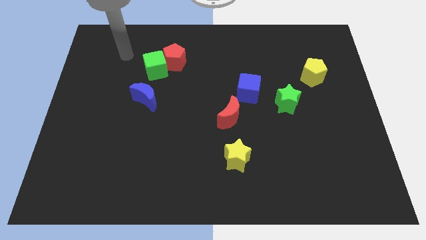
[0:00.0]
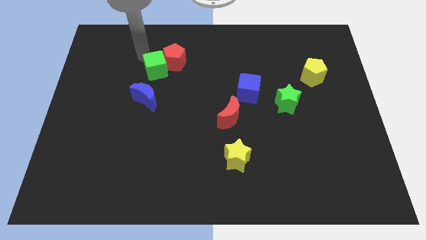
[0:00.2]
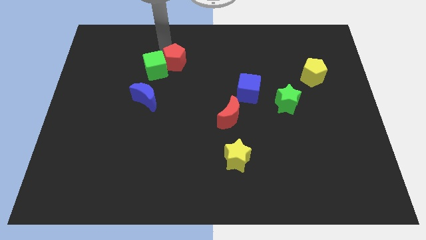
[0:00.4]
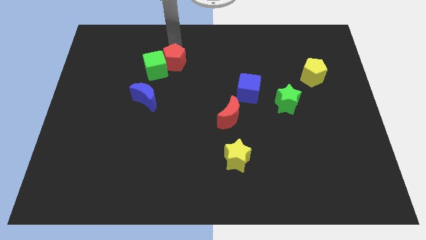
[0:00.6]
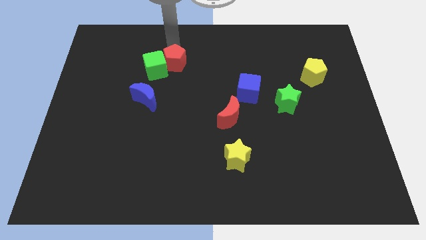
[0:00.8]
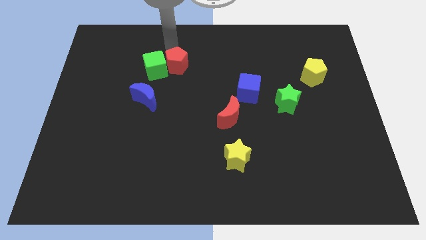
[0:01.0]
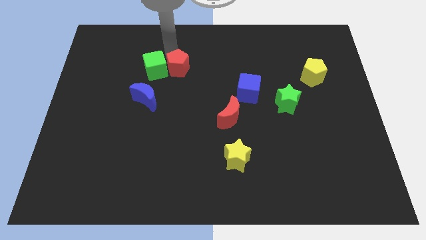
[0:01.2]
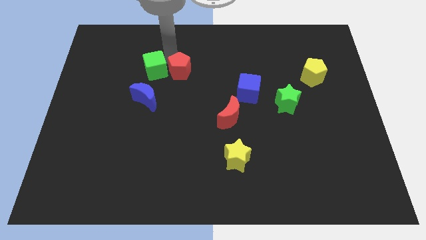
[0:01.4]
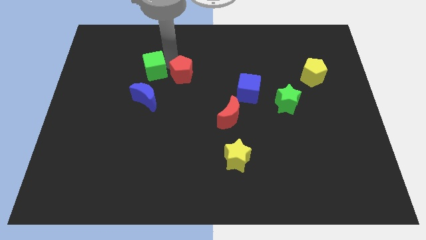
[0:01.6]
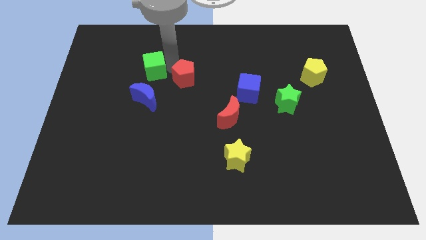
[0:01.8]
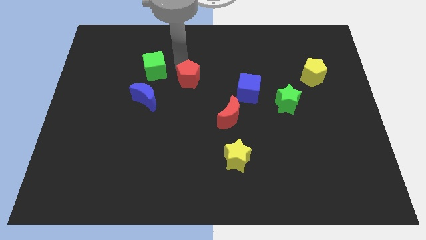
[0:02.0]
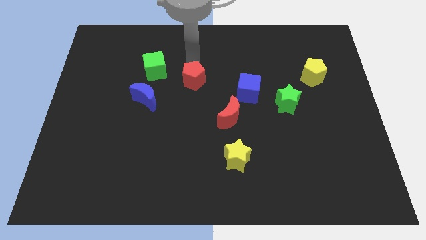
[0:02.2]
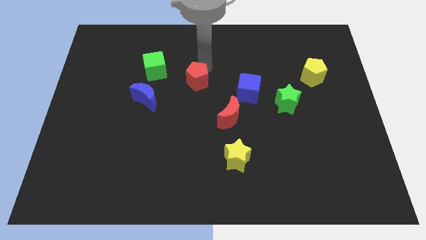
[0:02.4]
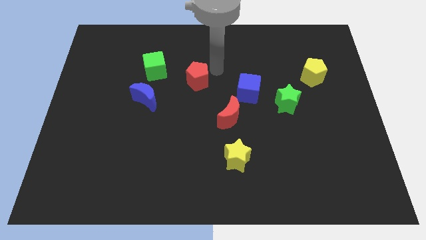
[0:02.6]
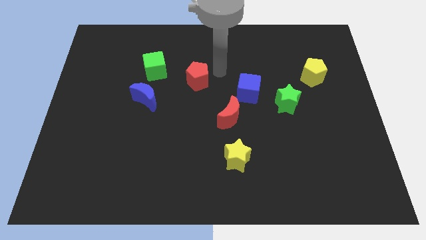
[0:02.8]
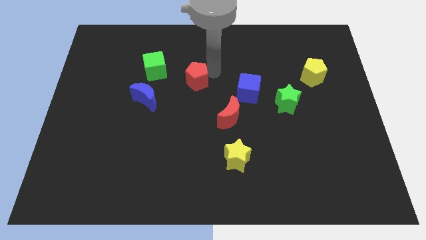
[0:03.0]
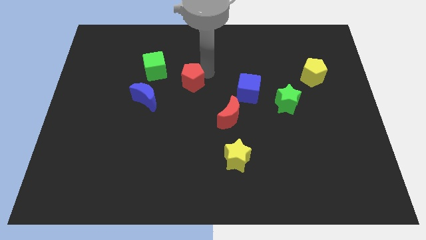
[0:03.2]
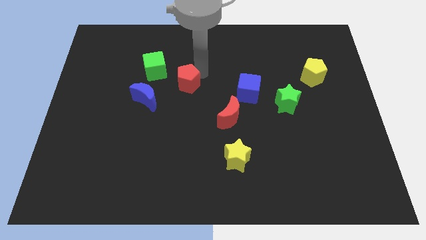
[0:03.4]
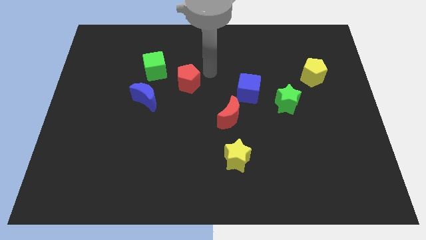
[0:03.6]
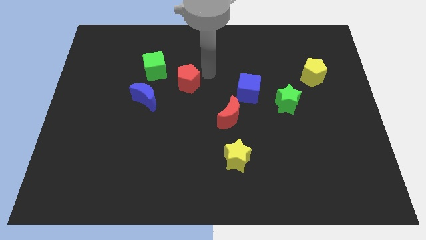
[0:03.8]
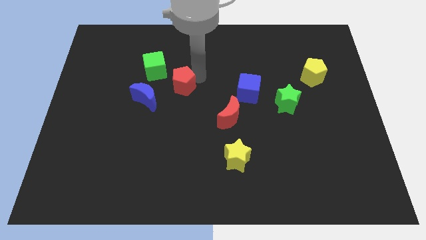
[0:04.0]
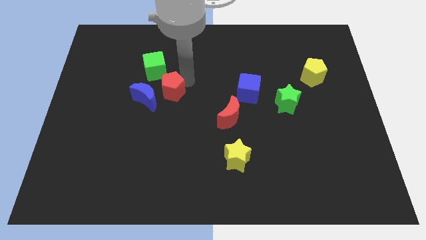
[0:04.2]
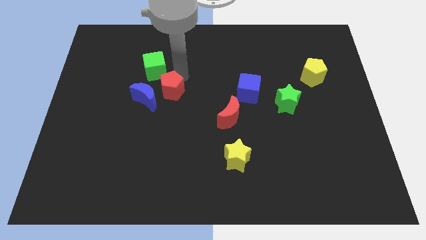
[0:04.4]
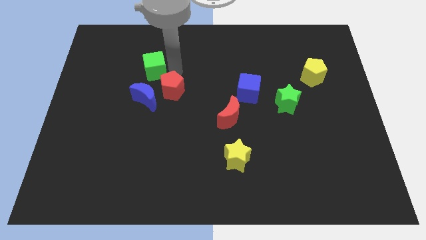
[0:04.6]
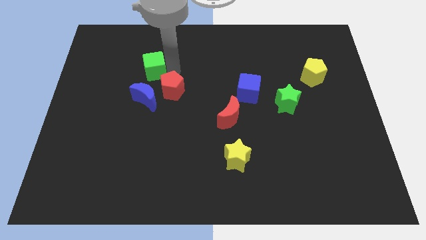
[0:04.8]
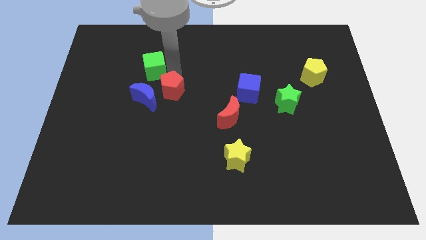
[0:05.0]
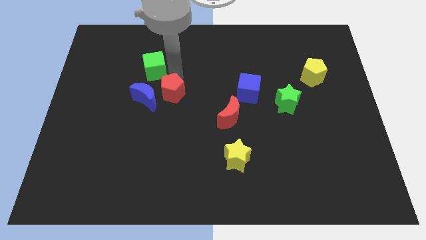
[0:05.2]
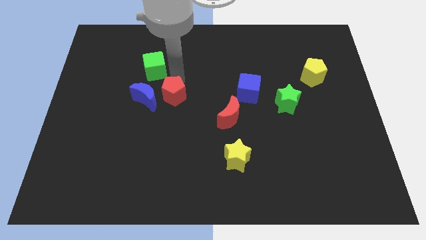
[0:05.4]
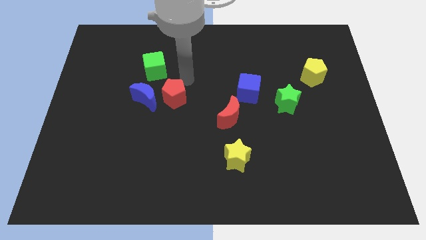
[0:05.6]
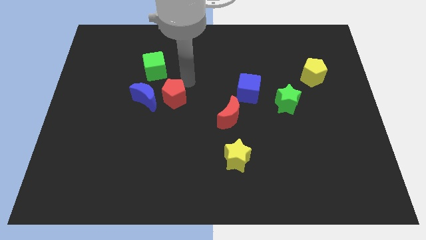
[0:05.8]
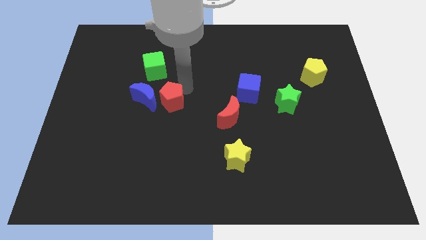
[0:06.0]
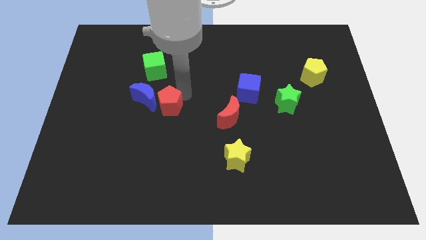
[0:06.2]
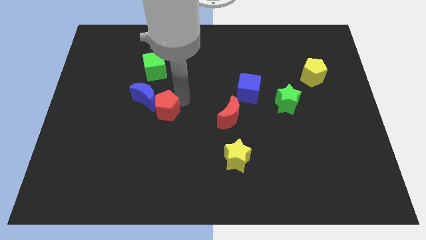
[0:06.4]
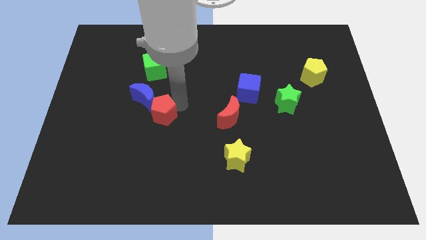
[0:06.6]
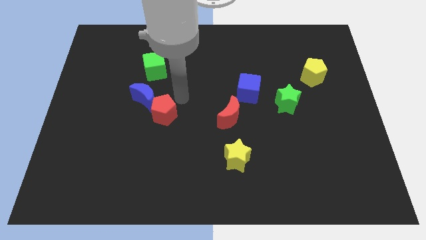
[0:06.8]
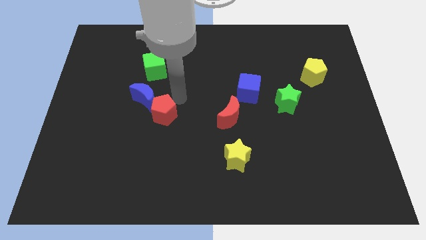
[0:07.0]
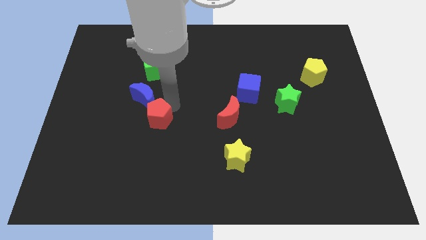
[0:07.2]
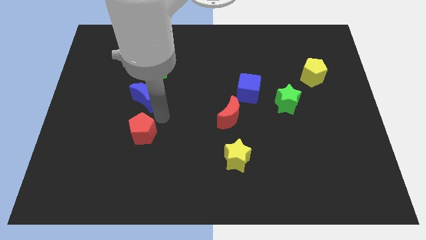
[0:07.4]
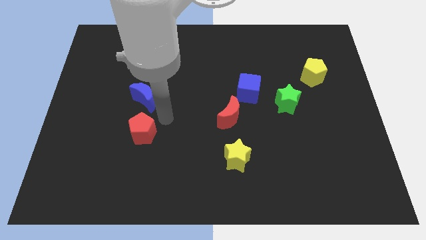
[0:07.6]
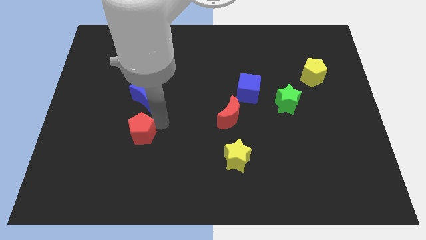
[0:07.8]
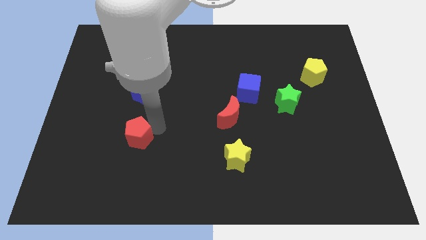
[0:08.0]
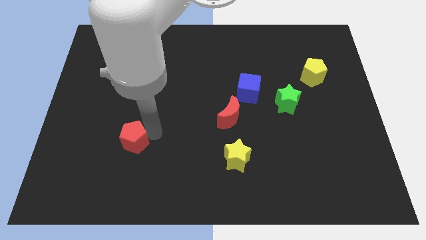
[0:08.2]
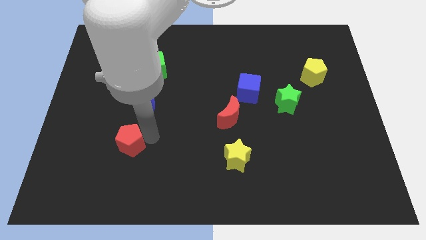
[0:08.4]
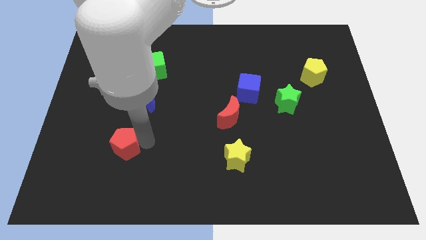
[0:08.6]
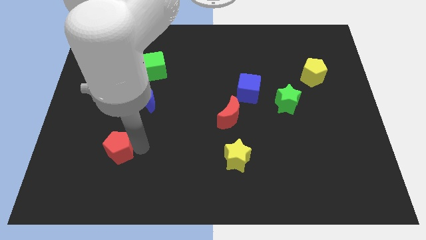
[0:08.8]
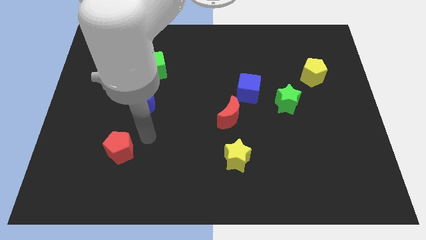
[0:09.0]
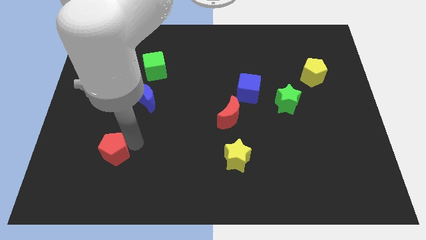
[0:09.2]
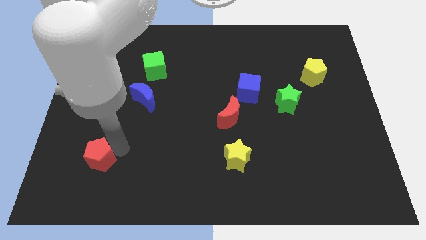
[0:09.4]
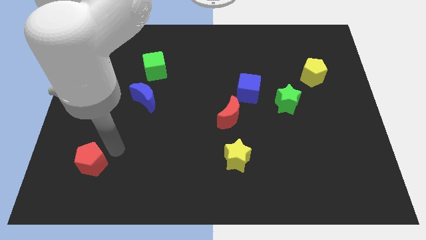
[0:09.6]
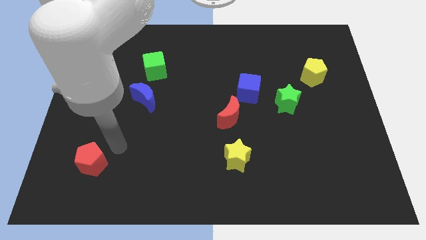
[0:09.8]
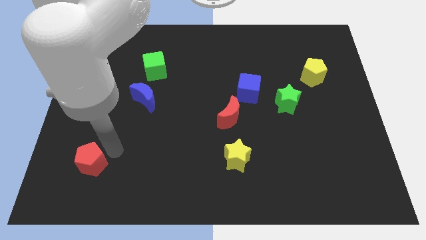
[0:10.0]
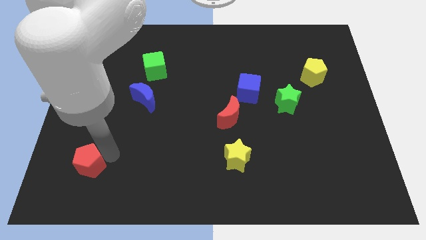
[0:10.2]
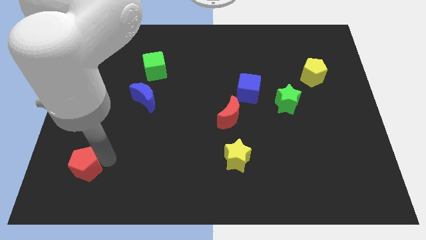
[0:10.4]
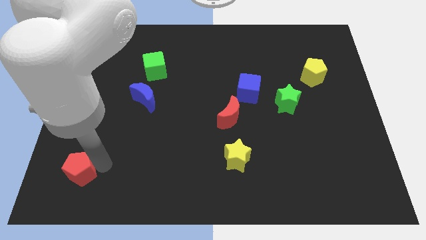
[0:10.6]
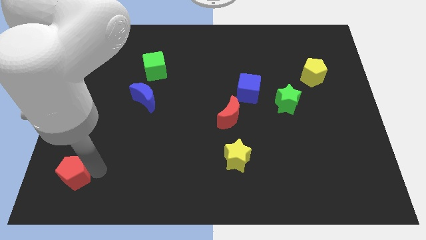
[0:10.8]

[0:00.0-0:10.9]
slide the red pentagon to the bottom left corner

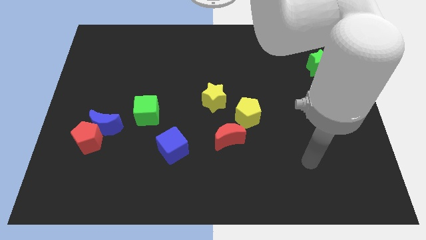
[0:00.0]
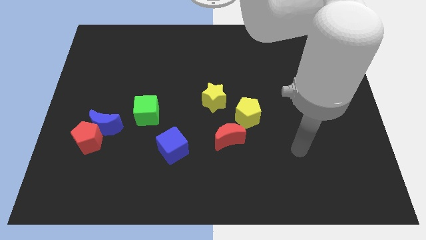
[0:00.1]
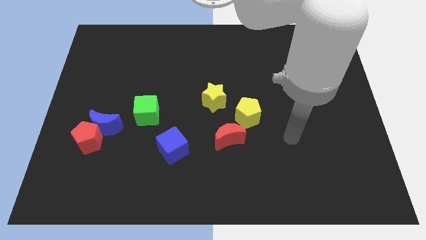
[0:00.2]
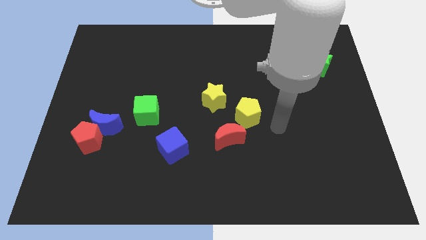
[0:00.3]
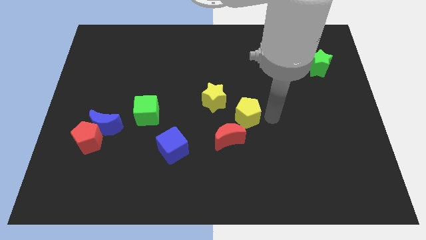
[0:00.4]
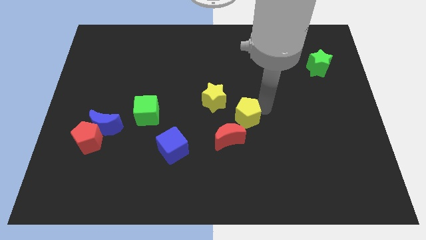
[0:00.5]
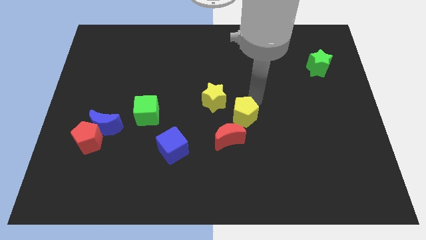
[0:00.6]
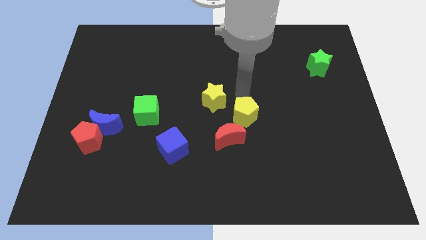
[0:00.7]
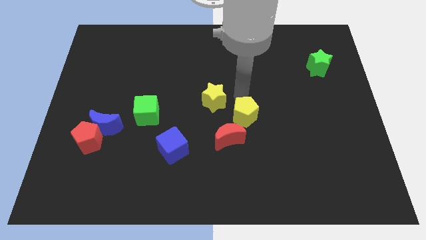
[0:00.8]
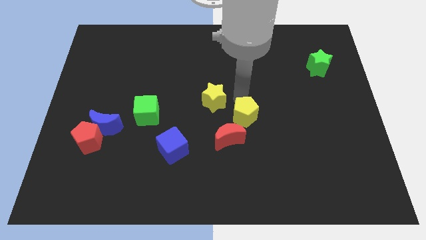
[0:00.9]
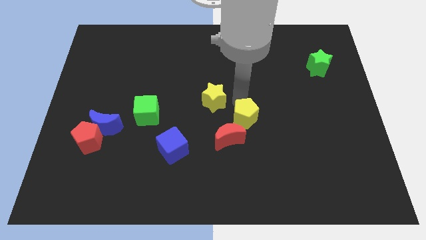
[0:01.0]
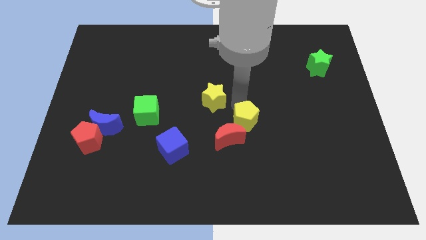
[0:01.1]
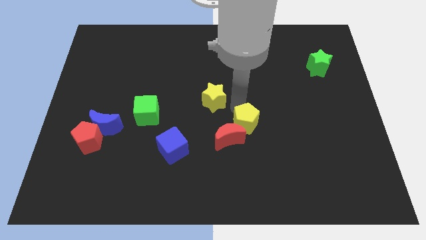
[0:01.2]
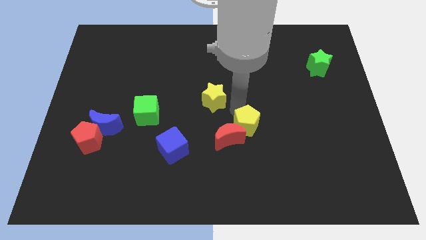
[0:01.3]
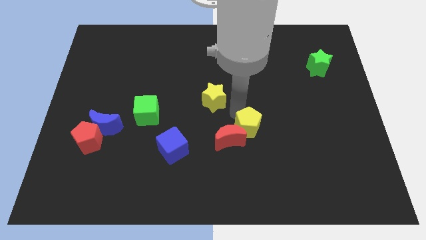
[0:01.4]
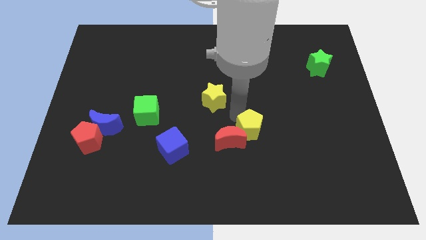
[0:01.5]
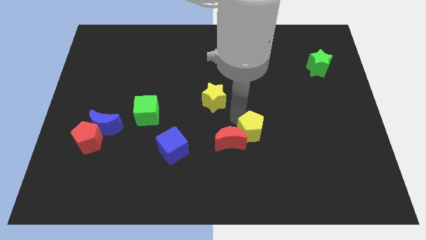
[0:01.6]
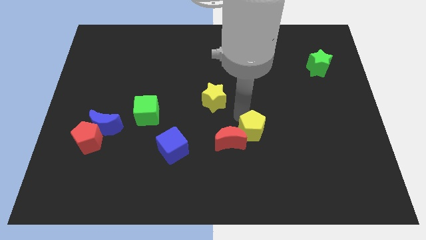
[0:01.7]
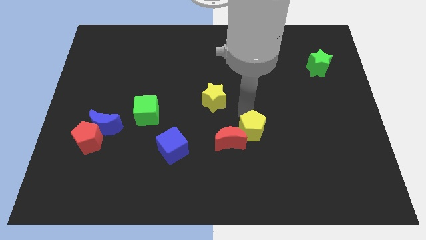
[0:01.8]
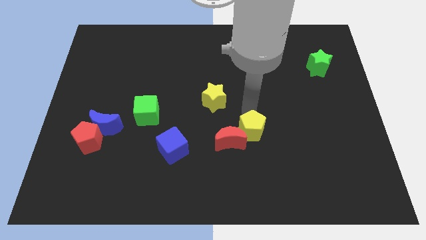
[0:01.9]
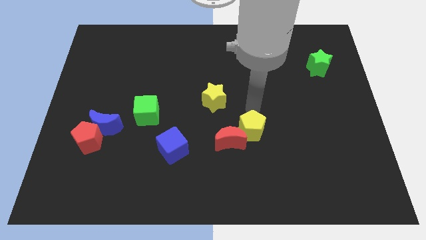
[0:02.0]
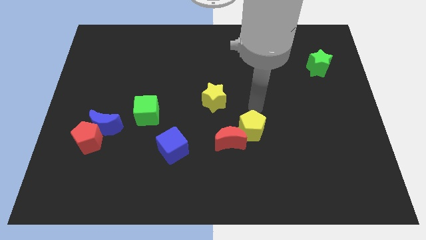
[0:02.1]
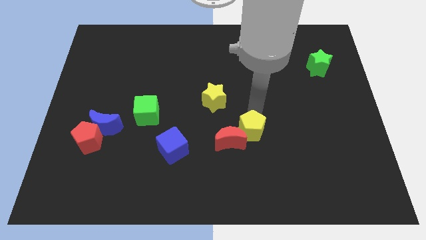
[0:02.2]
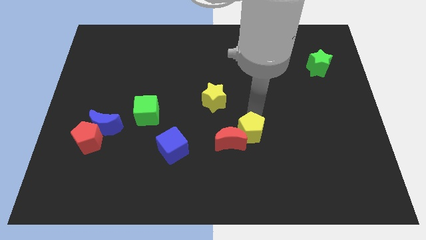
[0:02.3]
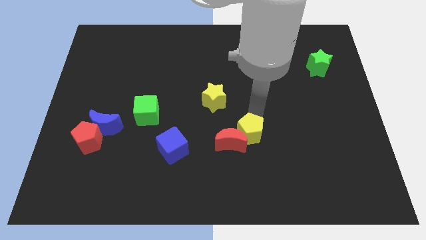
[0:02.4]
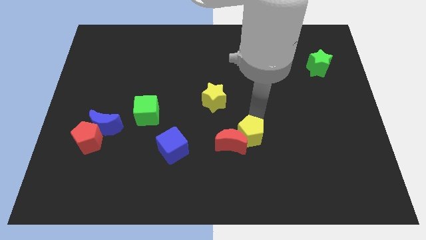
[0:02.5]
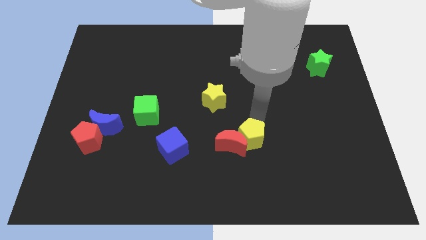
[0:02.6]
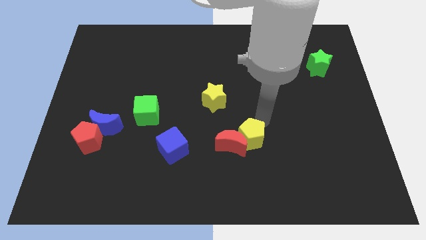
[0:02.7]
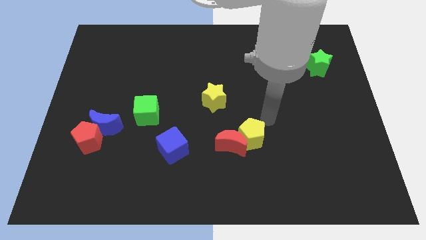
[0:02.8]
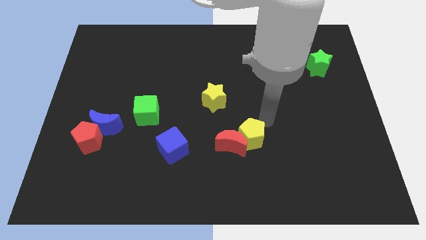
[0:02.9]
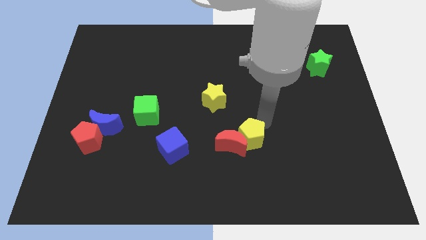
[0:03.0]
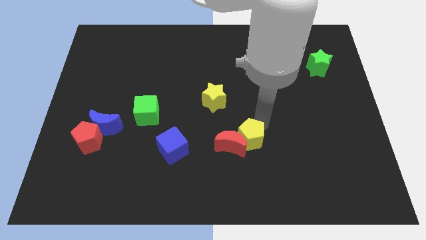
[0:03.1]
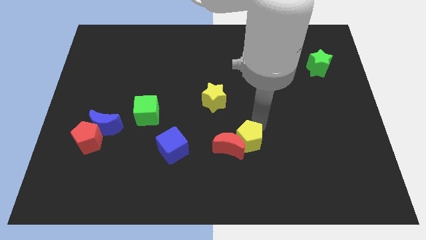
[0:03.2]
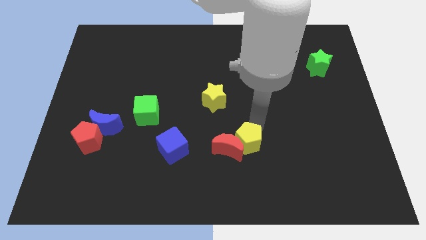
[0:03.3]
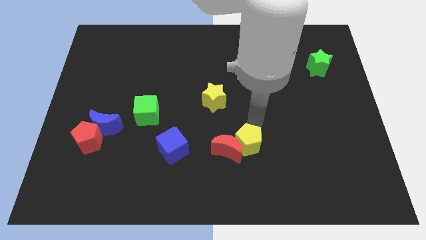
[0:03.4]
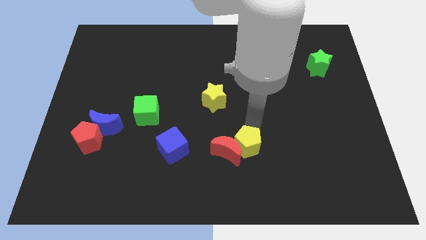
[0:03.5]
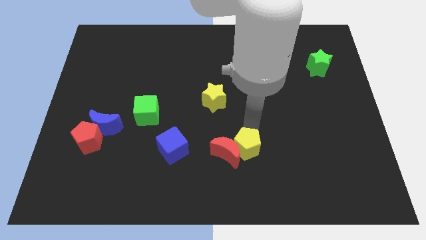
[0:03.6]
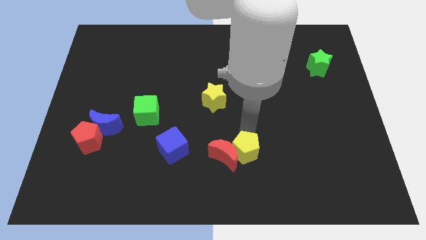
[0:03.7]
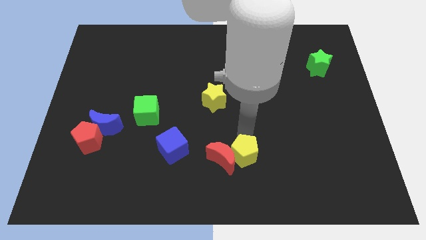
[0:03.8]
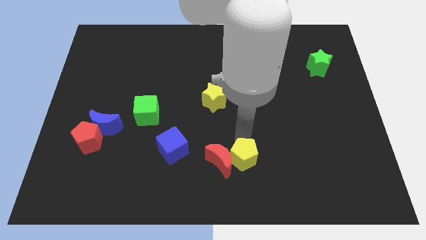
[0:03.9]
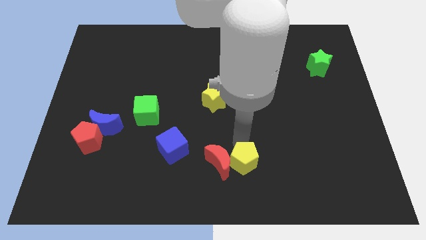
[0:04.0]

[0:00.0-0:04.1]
move the yellow pentagon to the bottom side
